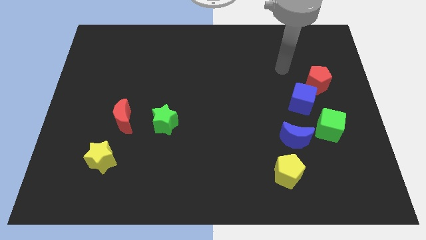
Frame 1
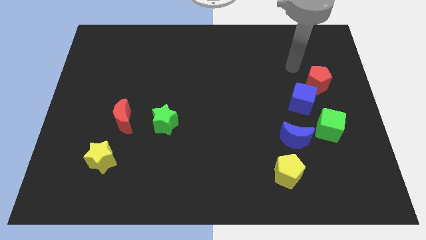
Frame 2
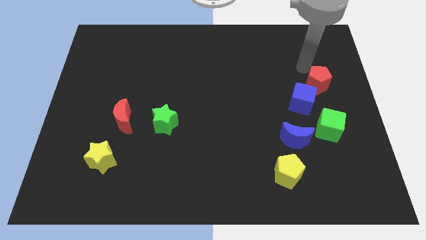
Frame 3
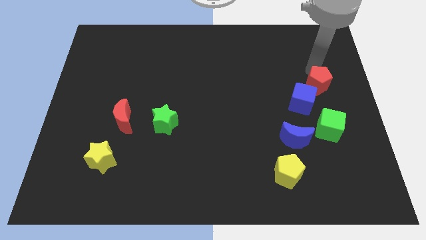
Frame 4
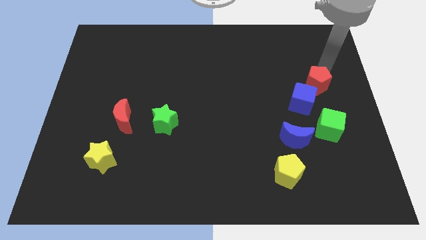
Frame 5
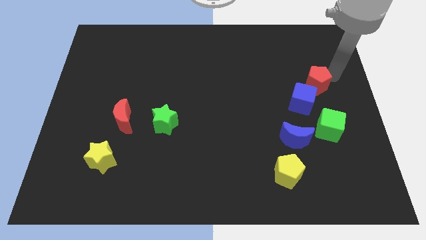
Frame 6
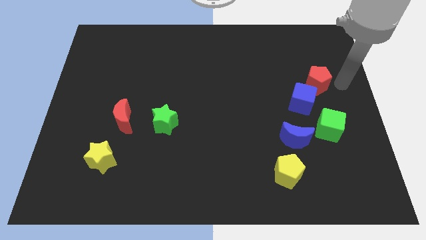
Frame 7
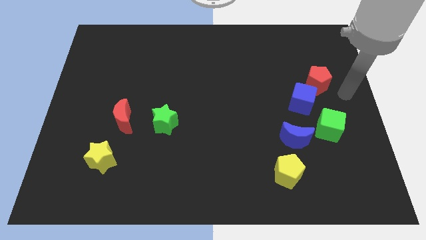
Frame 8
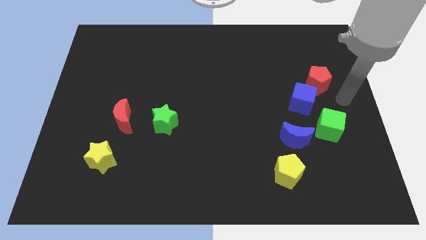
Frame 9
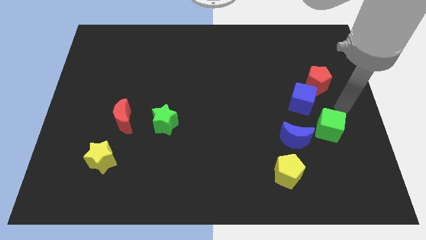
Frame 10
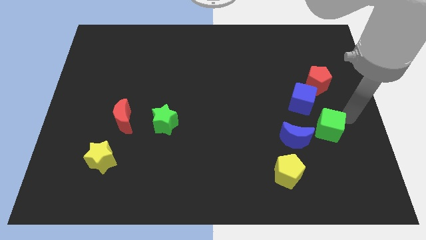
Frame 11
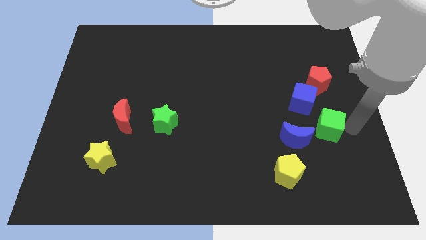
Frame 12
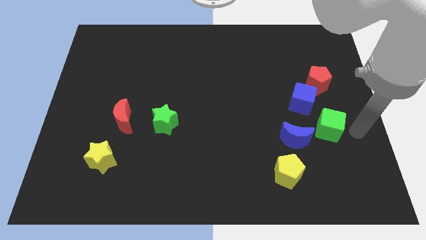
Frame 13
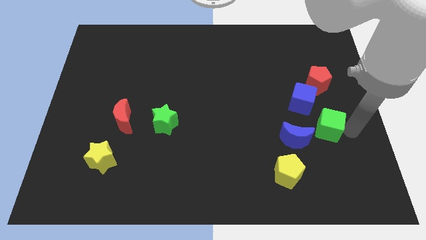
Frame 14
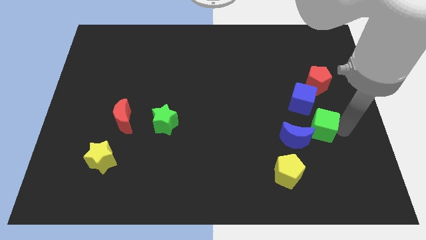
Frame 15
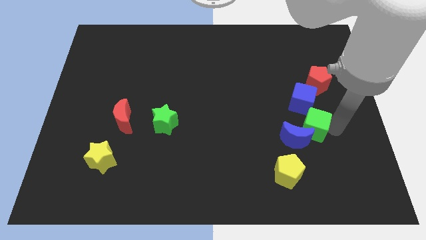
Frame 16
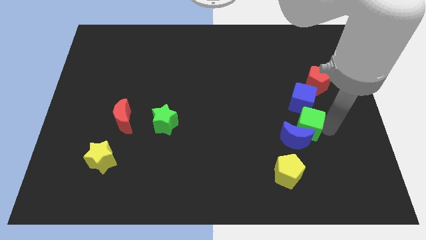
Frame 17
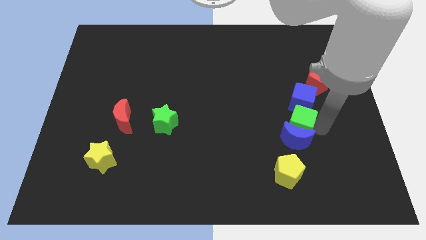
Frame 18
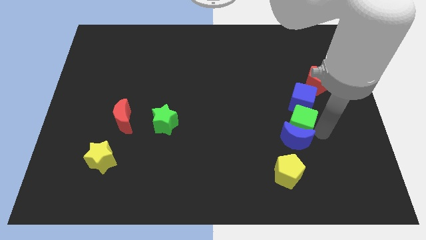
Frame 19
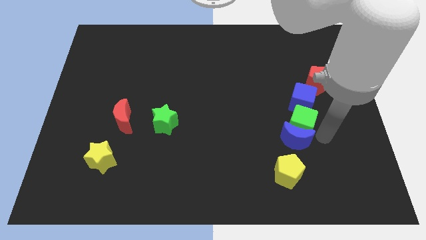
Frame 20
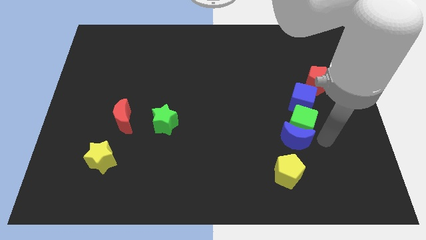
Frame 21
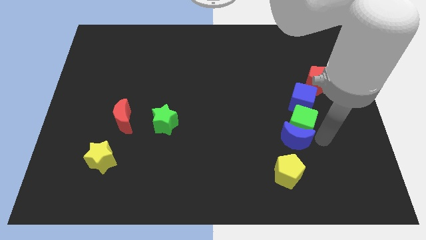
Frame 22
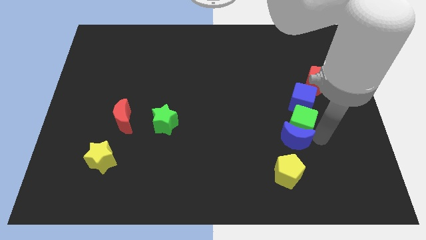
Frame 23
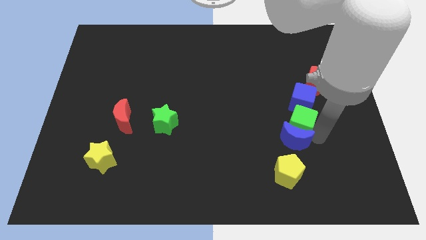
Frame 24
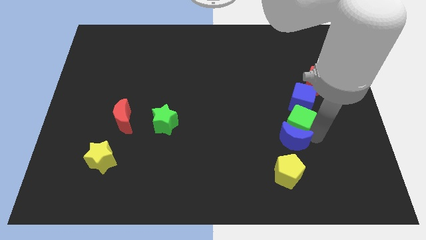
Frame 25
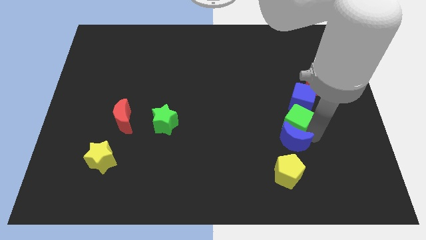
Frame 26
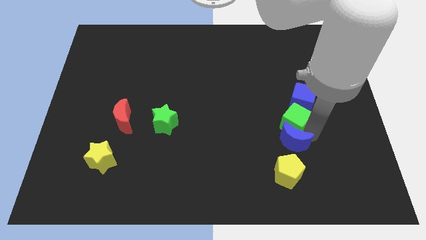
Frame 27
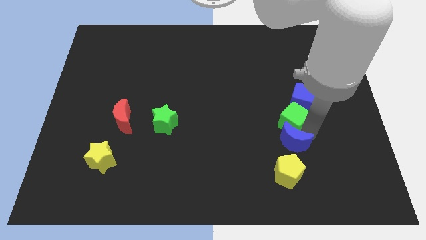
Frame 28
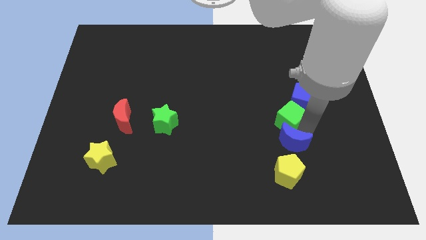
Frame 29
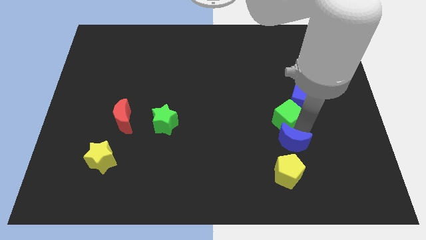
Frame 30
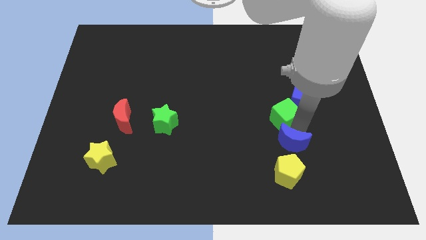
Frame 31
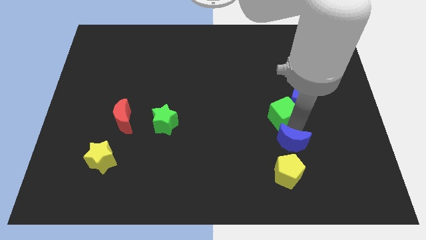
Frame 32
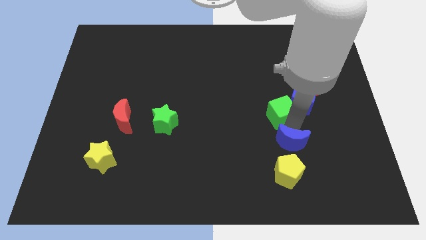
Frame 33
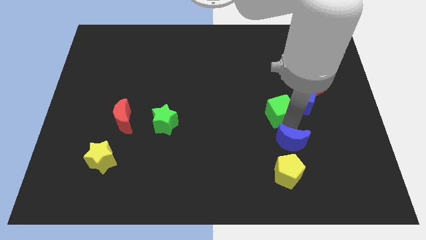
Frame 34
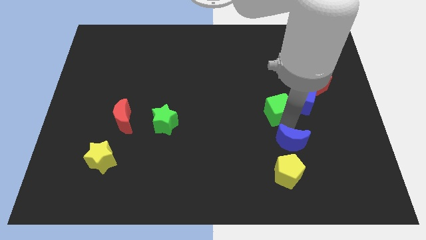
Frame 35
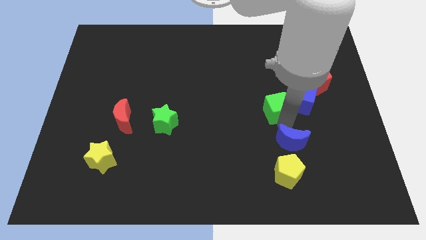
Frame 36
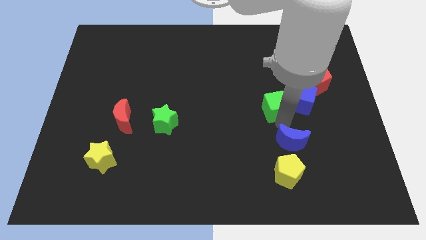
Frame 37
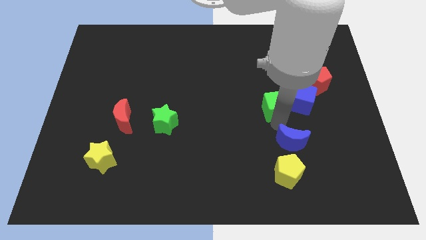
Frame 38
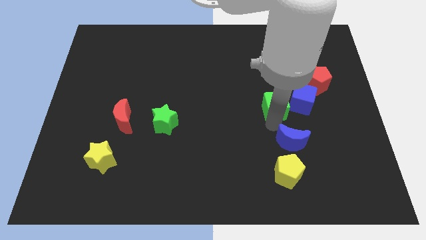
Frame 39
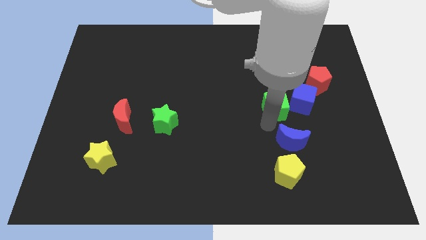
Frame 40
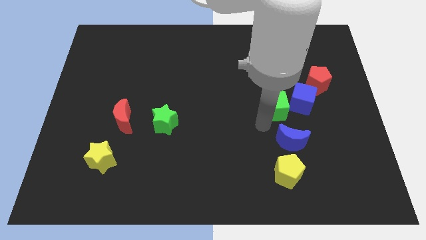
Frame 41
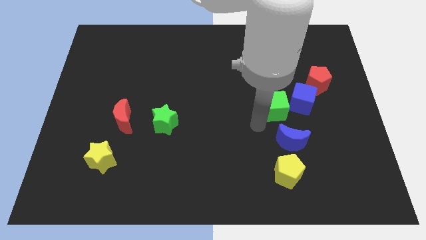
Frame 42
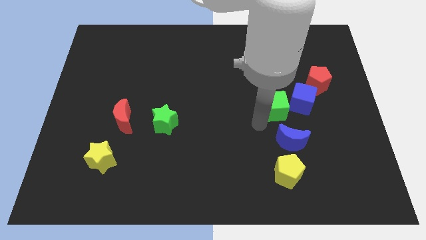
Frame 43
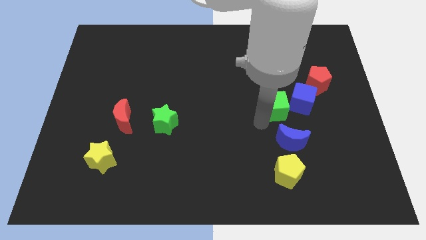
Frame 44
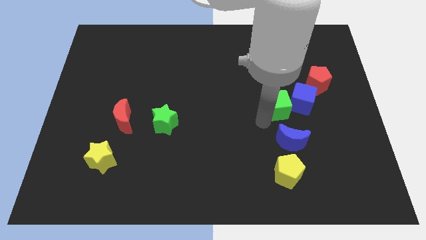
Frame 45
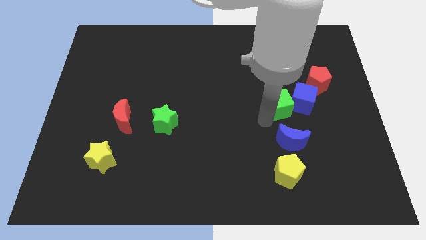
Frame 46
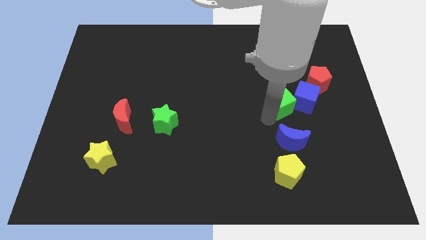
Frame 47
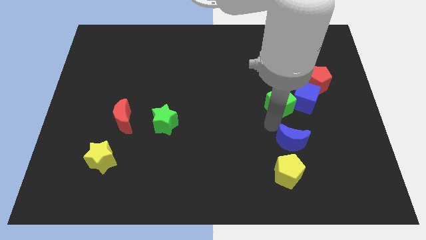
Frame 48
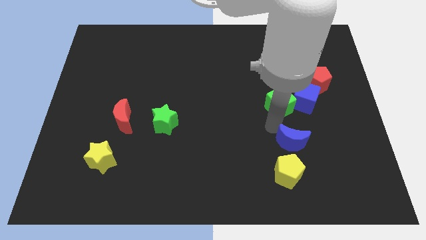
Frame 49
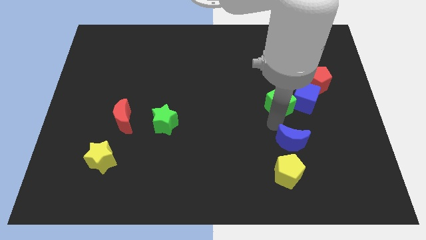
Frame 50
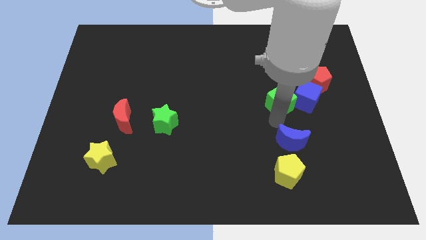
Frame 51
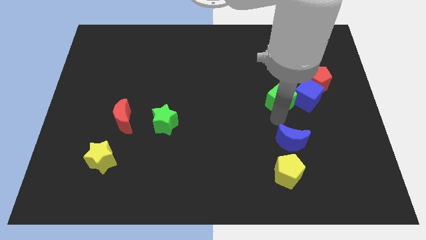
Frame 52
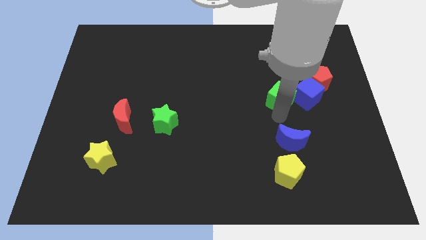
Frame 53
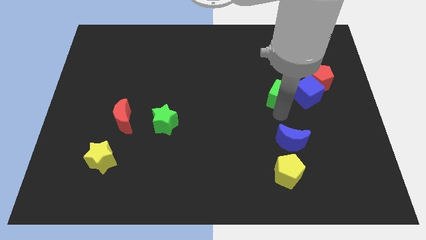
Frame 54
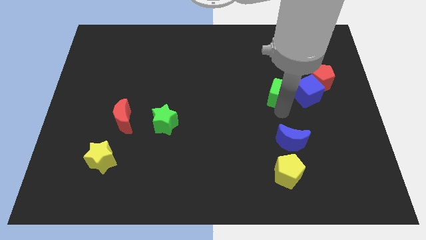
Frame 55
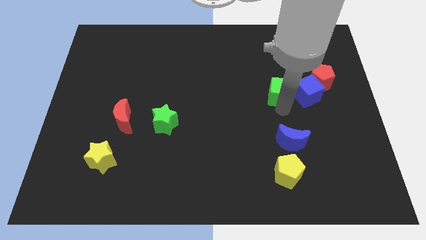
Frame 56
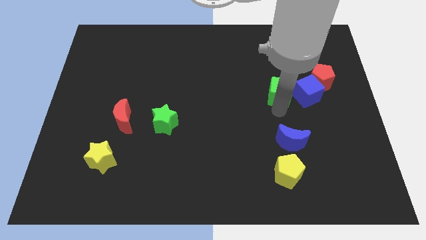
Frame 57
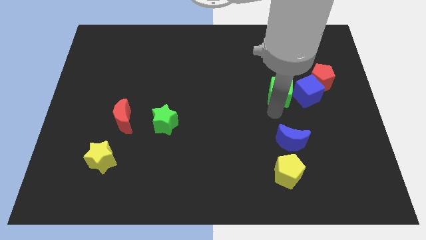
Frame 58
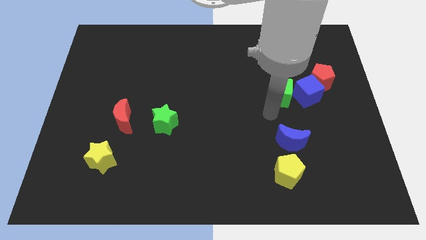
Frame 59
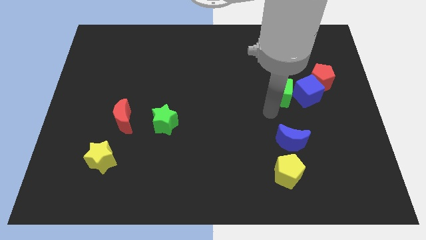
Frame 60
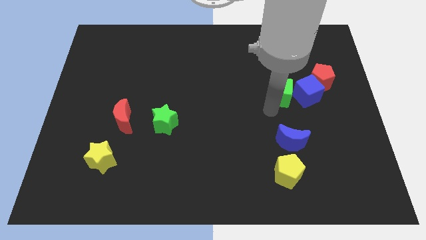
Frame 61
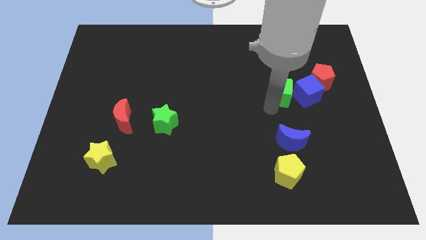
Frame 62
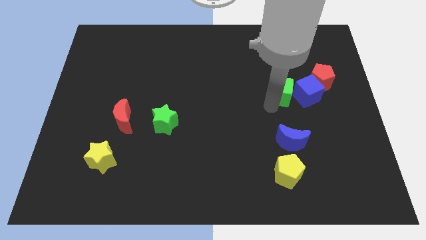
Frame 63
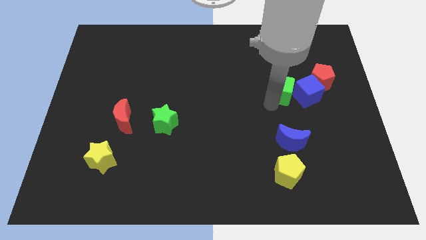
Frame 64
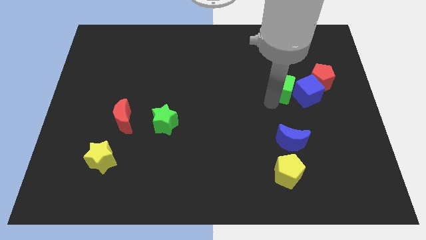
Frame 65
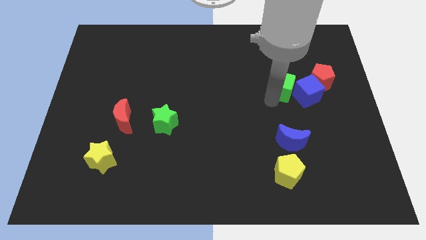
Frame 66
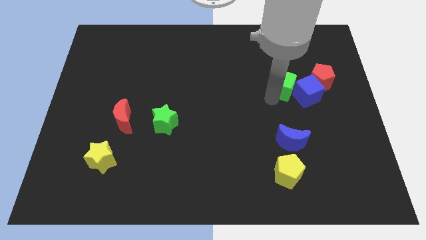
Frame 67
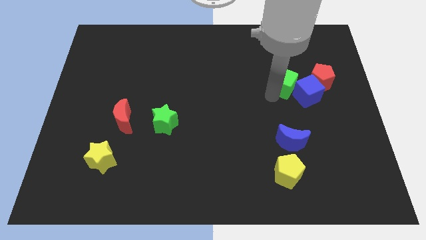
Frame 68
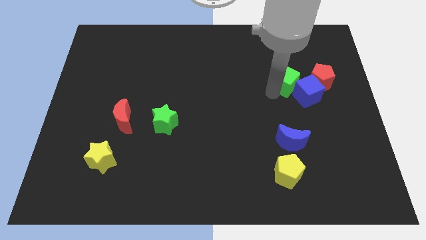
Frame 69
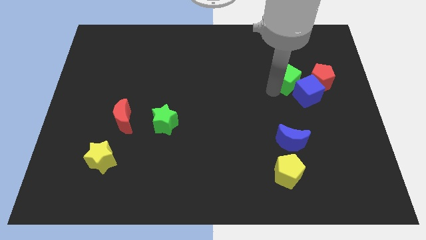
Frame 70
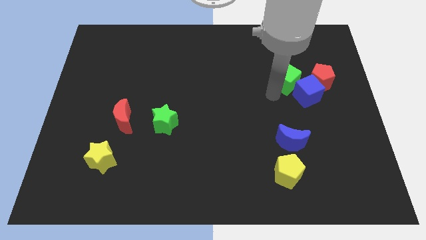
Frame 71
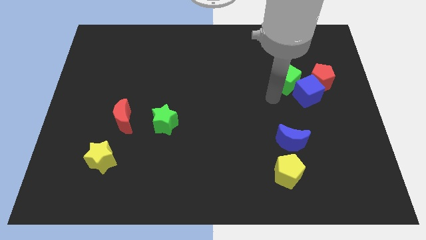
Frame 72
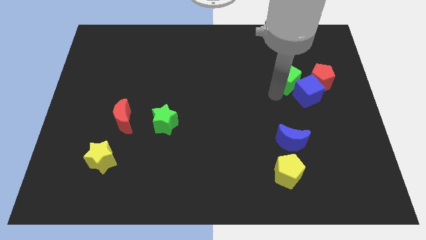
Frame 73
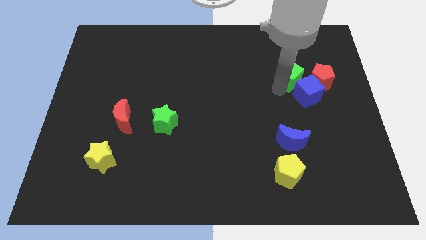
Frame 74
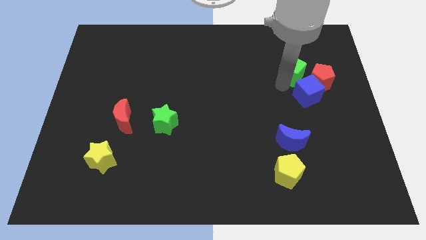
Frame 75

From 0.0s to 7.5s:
slide the green cube to the top left side of the red pentagon
